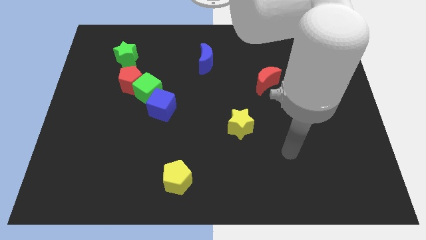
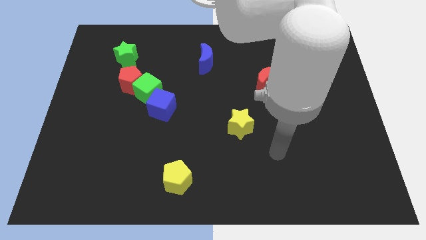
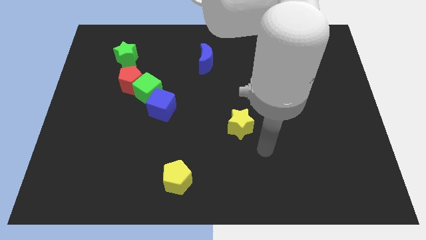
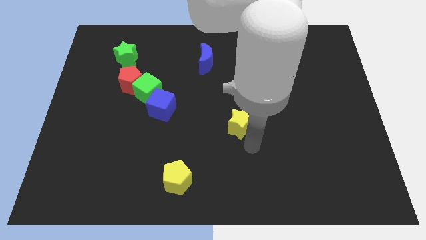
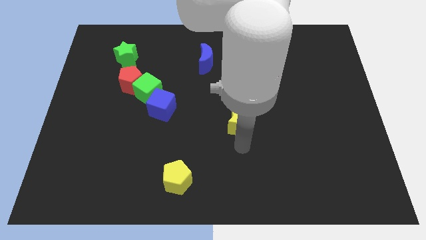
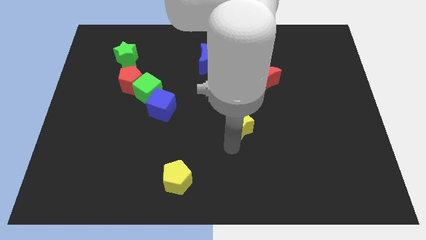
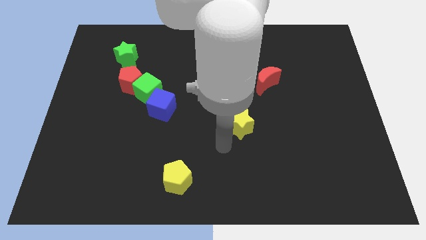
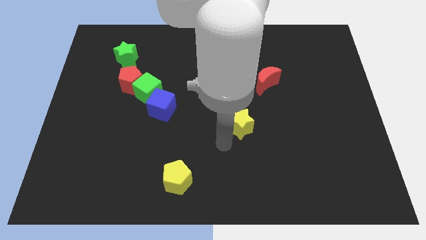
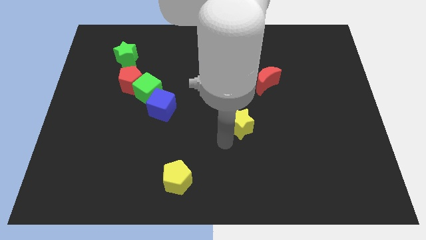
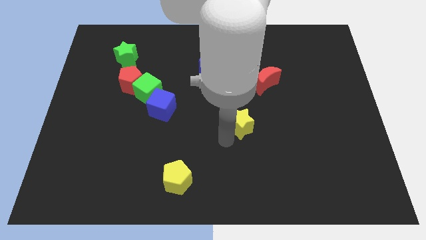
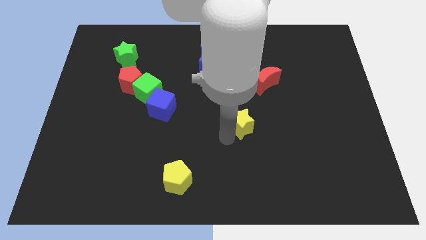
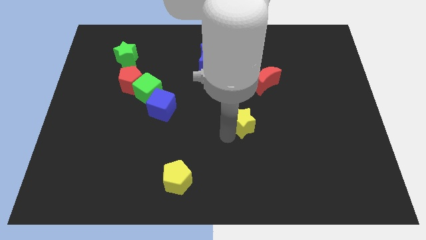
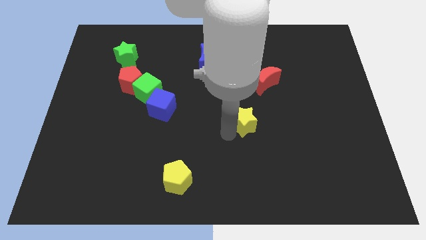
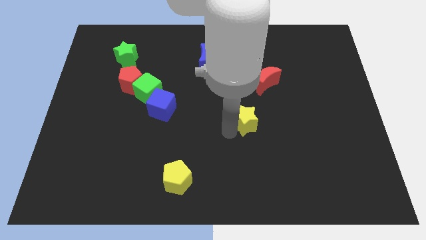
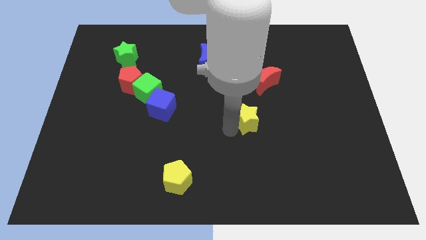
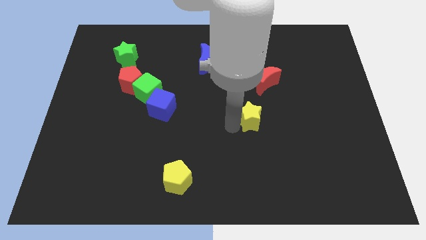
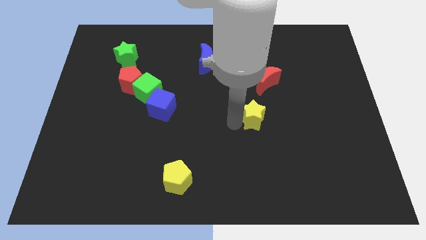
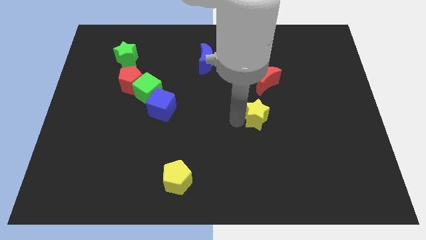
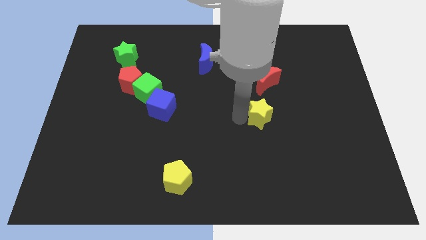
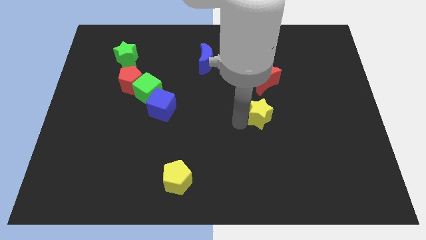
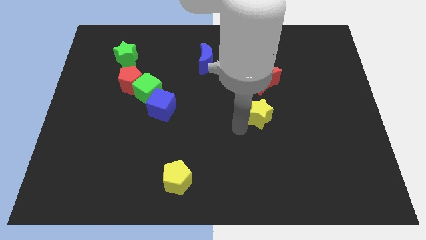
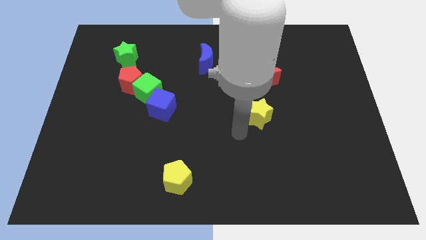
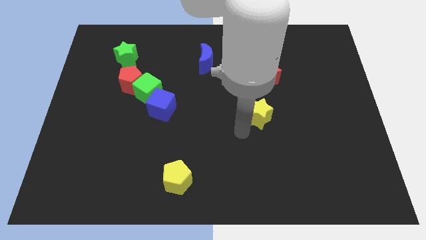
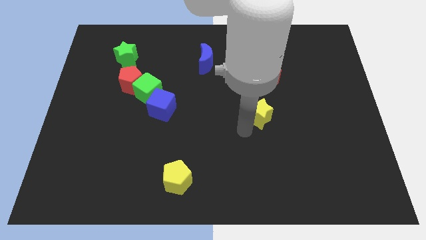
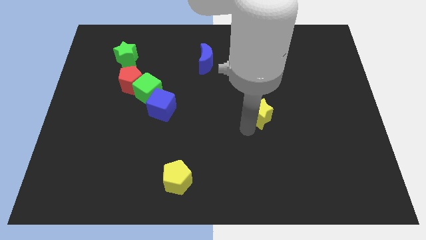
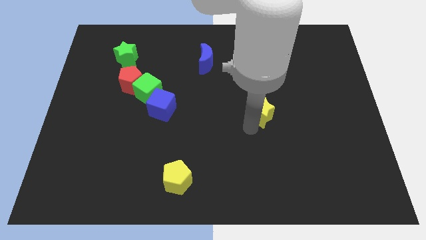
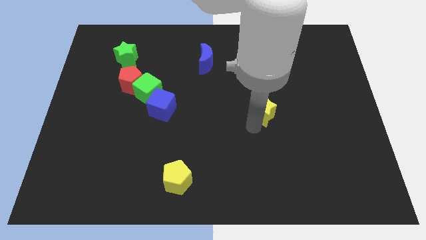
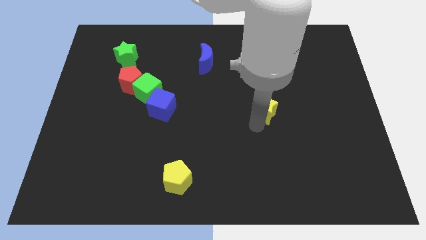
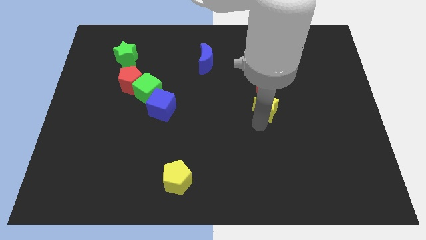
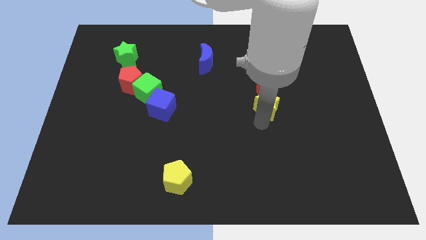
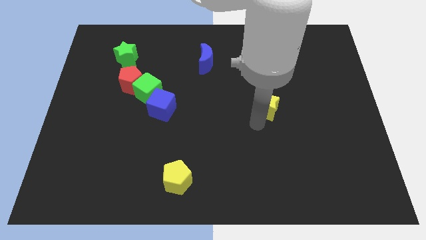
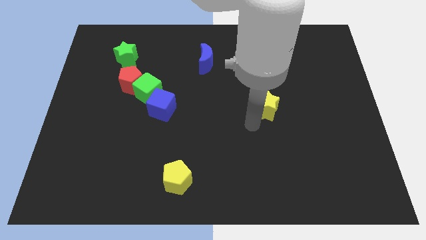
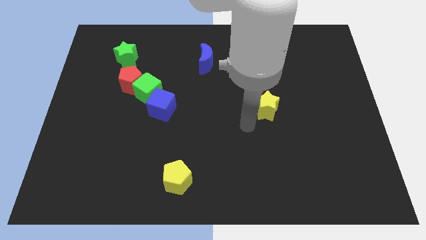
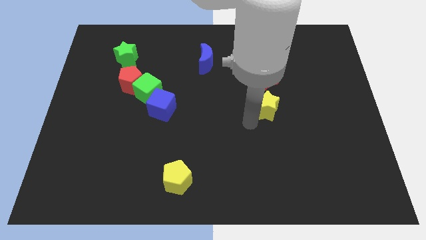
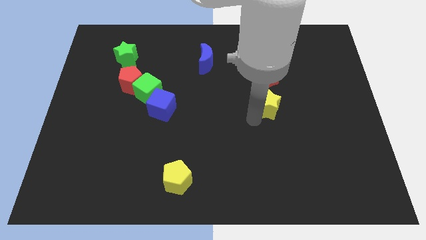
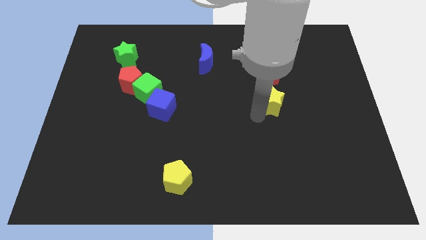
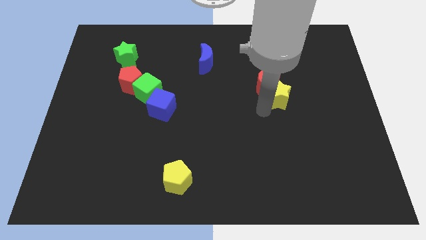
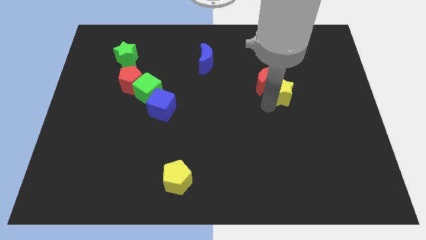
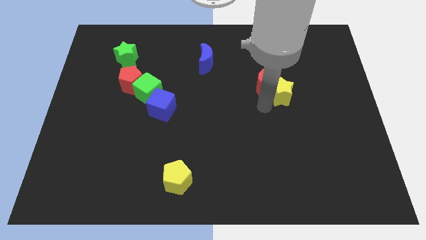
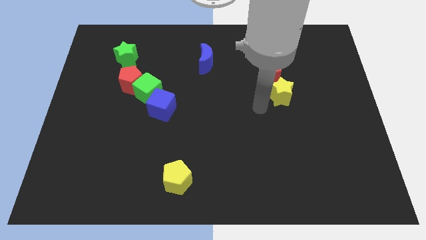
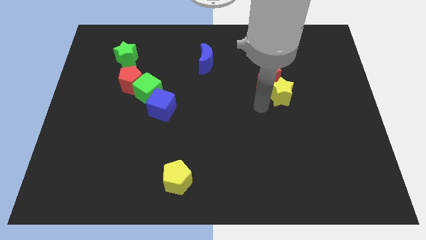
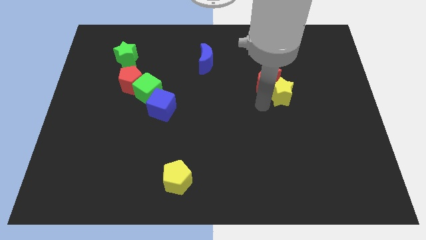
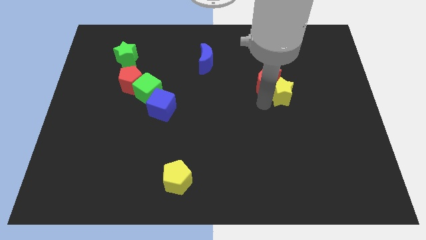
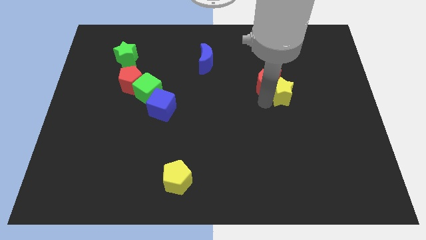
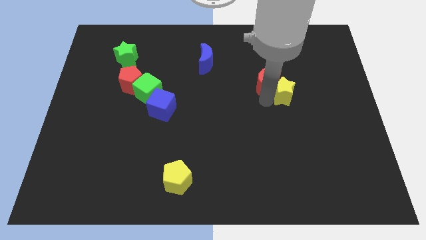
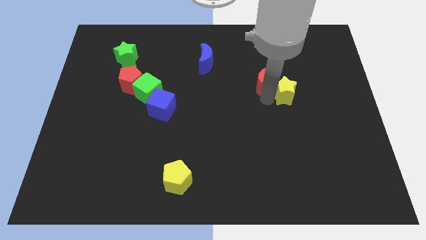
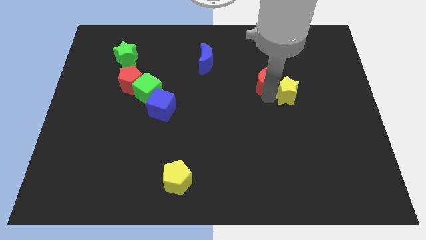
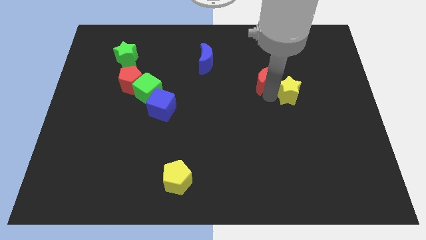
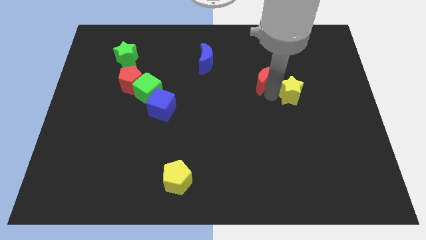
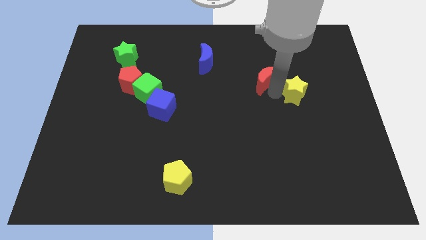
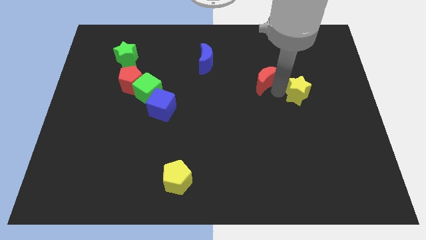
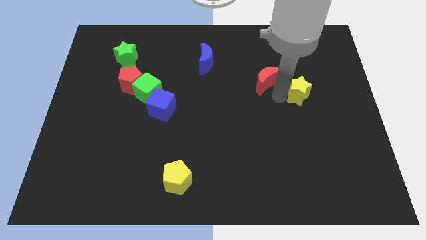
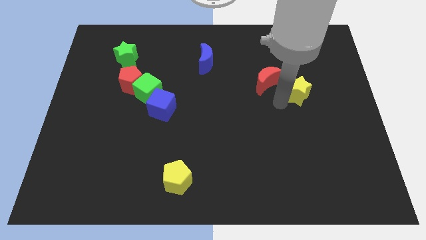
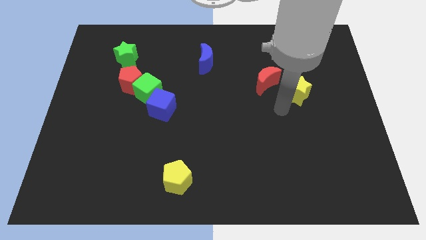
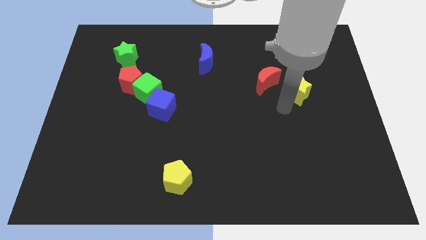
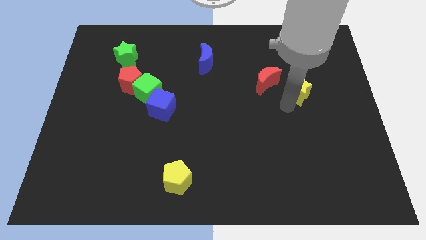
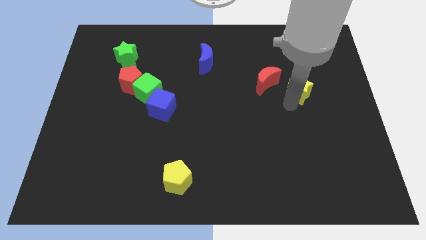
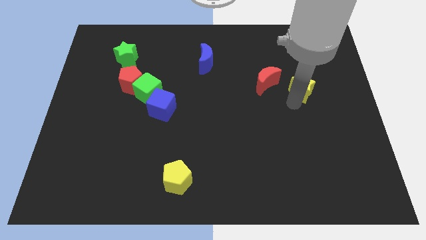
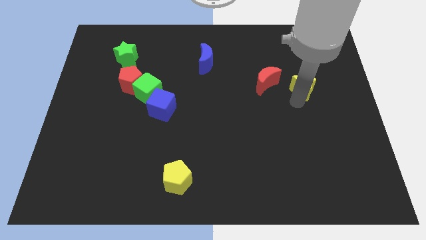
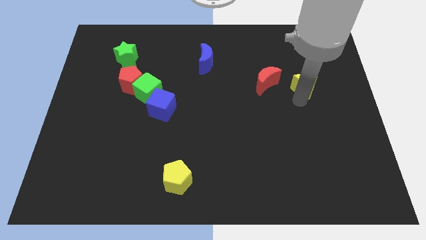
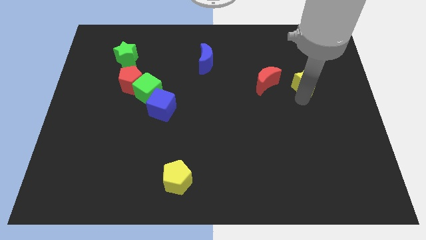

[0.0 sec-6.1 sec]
move the yellow star up and right

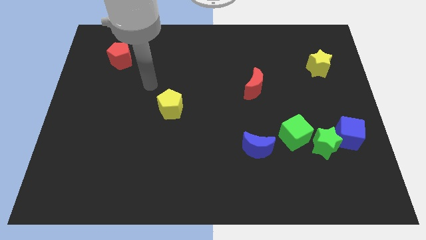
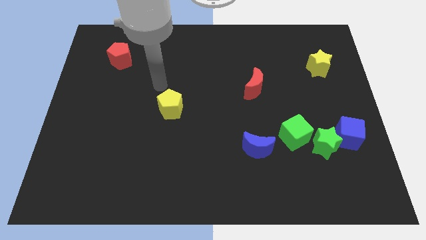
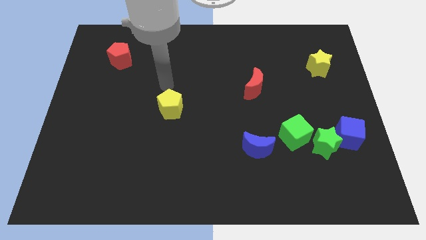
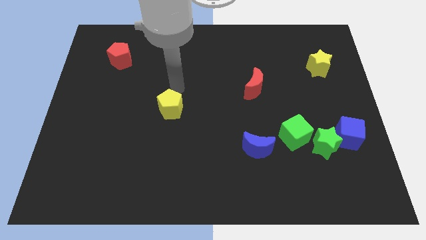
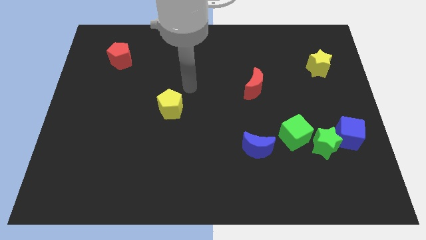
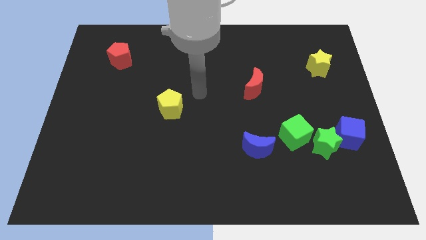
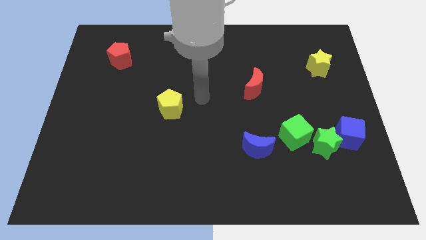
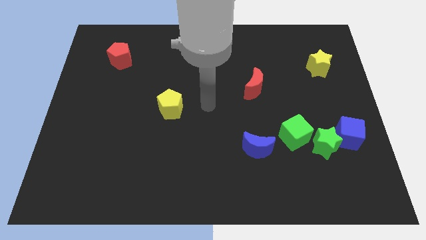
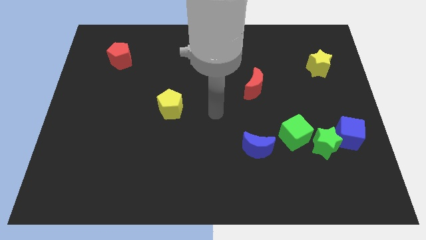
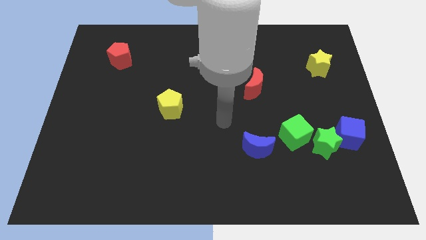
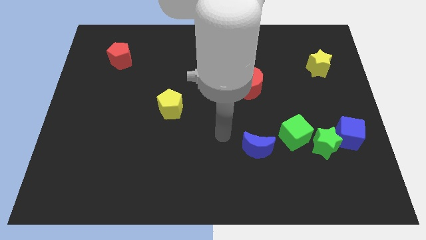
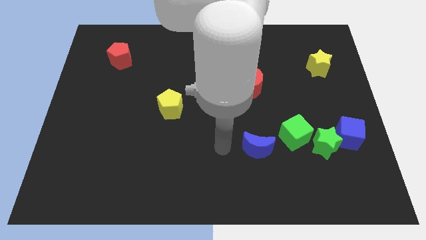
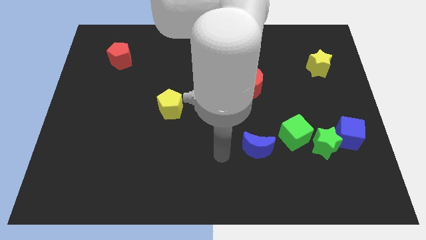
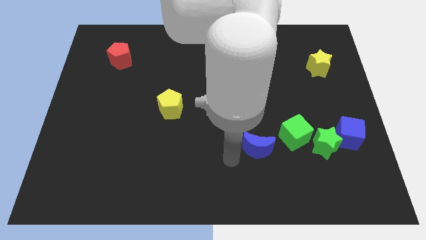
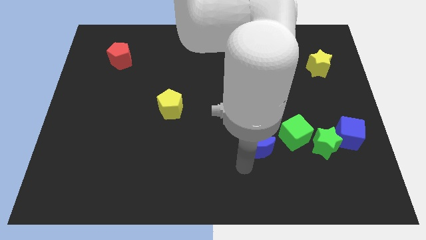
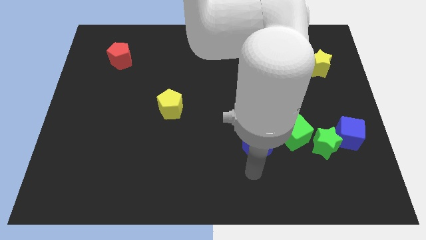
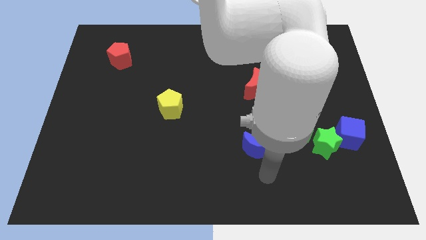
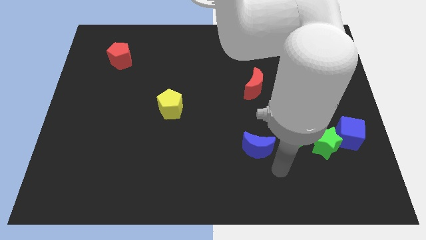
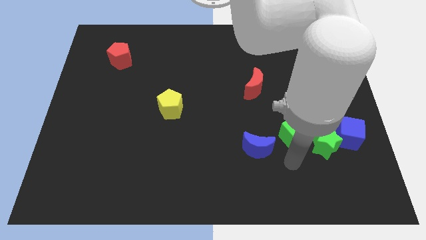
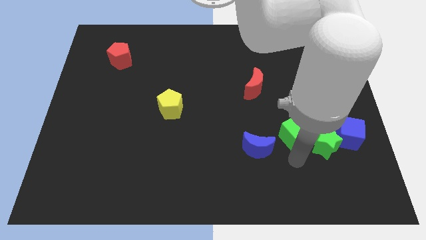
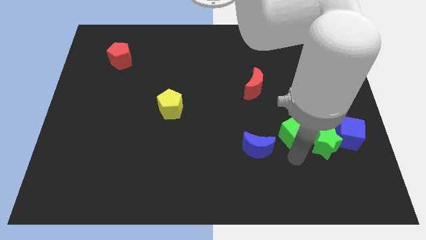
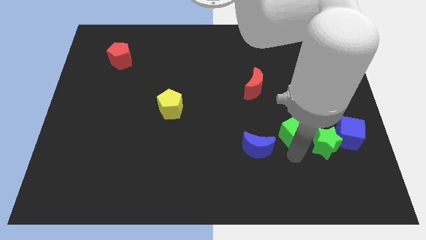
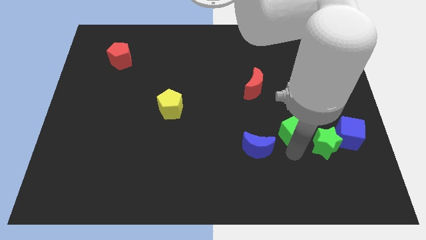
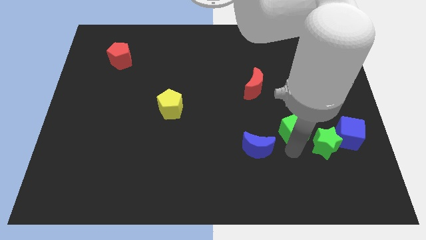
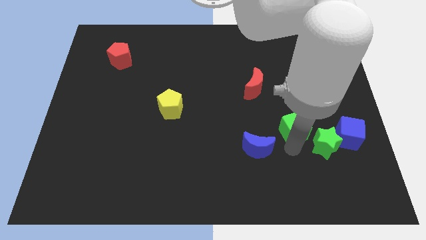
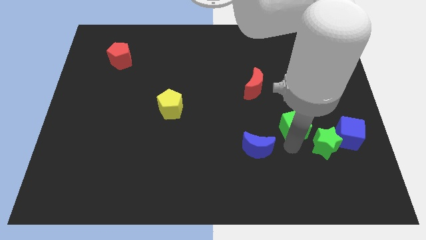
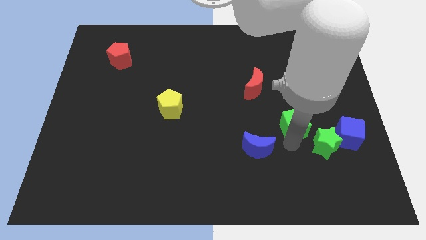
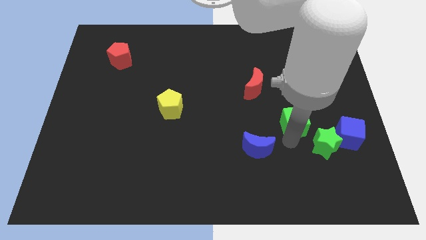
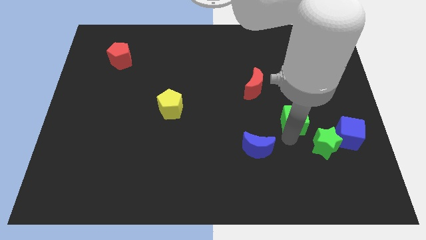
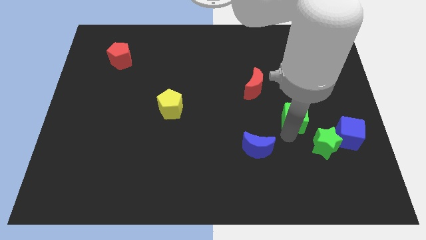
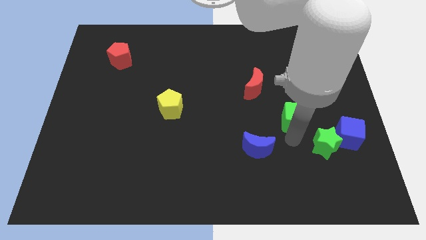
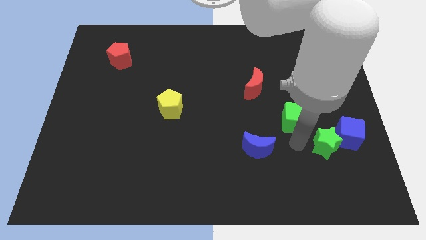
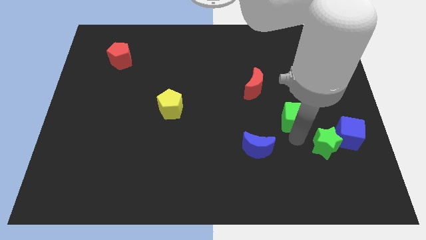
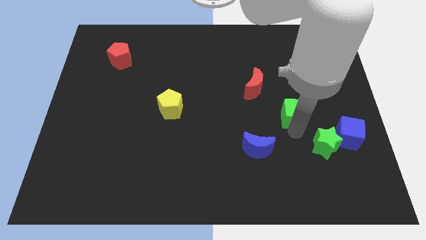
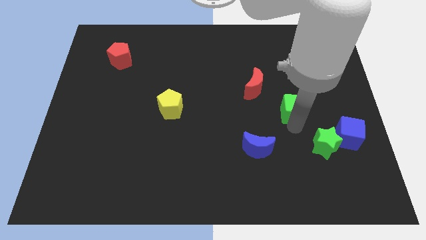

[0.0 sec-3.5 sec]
slide the green cube slightly upwards
